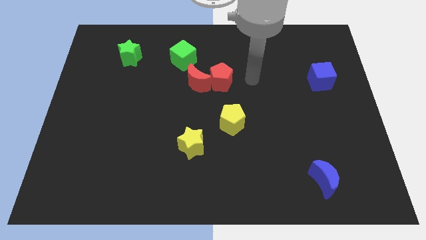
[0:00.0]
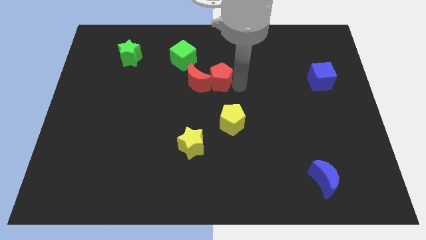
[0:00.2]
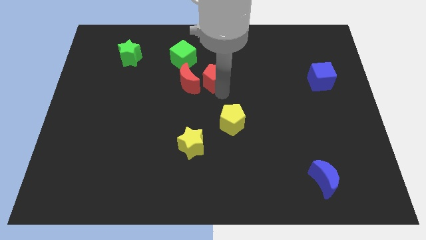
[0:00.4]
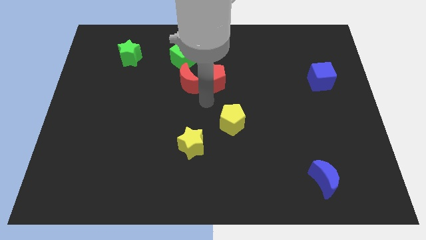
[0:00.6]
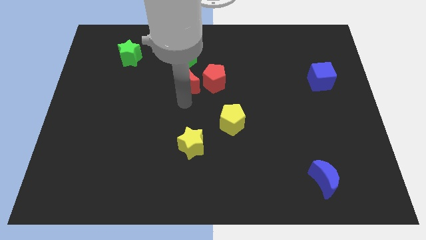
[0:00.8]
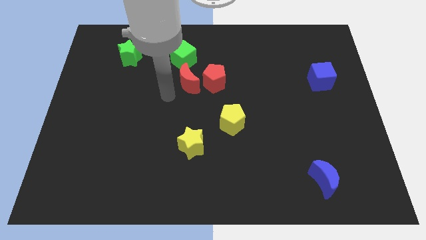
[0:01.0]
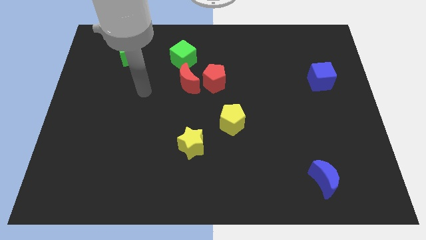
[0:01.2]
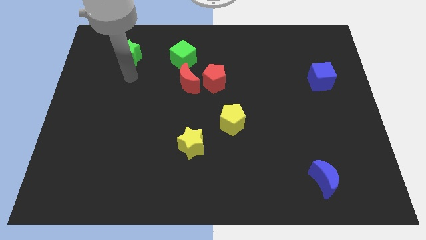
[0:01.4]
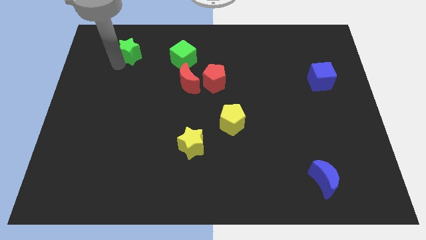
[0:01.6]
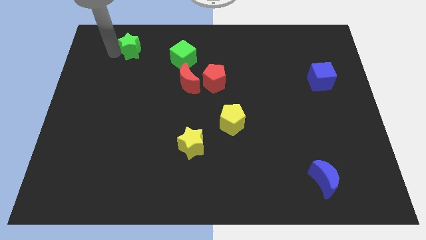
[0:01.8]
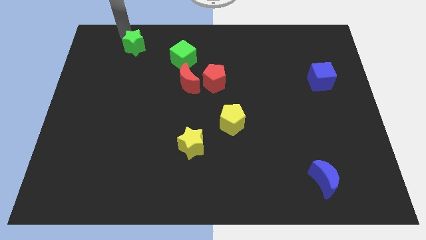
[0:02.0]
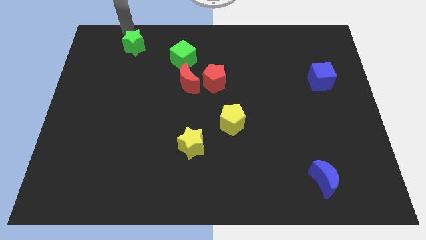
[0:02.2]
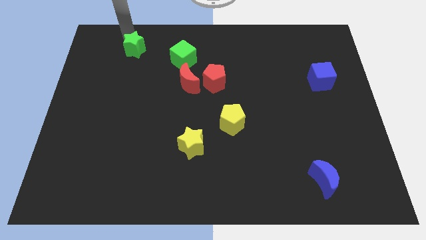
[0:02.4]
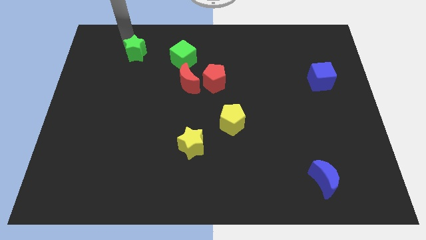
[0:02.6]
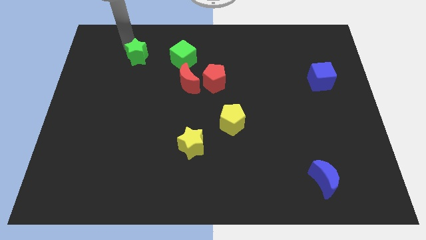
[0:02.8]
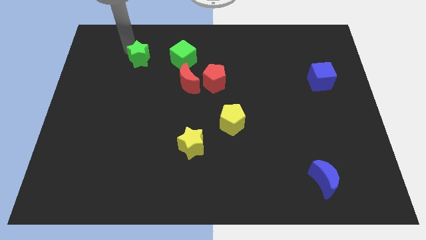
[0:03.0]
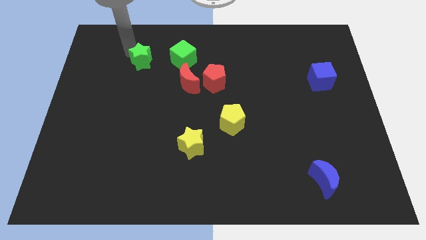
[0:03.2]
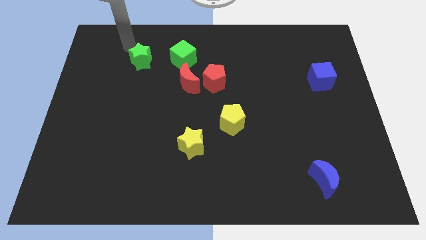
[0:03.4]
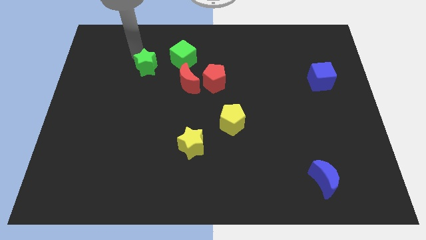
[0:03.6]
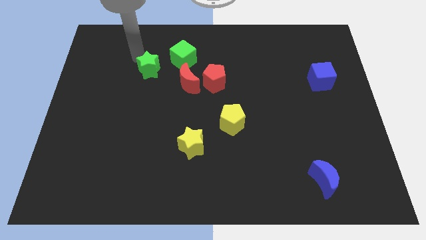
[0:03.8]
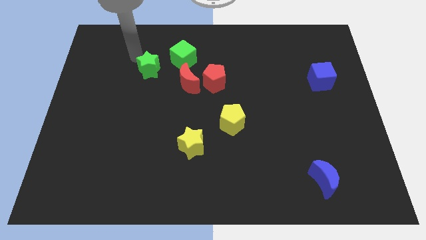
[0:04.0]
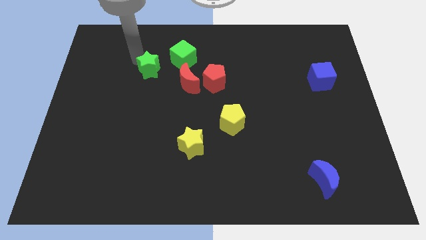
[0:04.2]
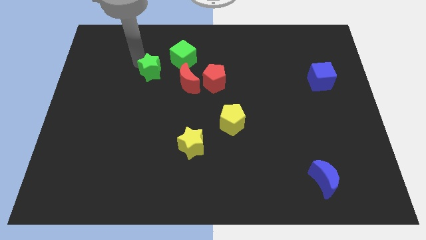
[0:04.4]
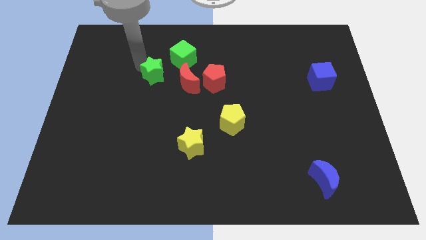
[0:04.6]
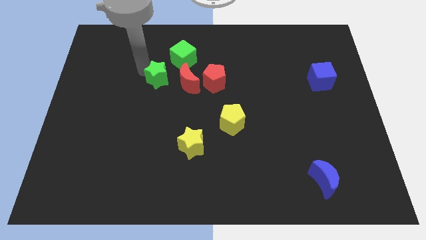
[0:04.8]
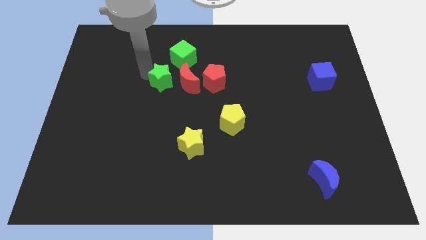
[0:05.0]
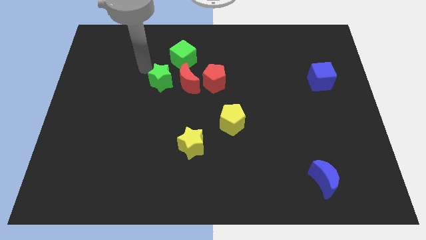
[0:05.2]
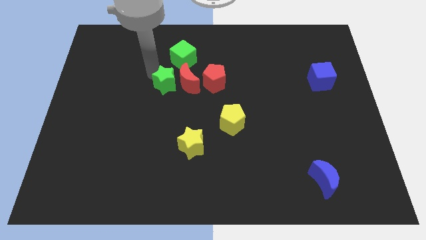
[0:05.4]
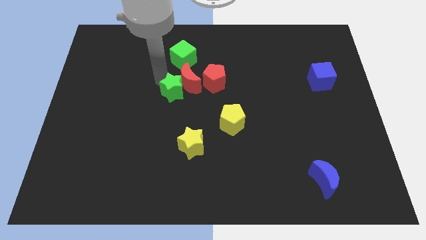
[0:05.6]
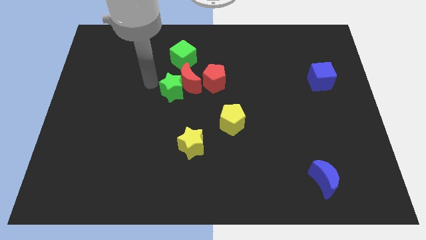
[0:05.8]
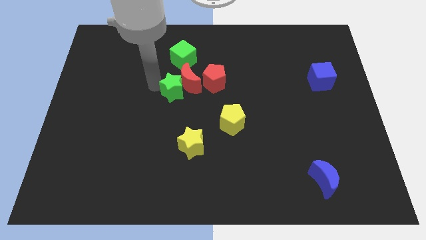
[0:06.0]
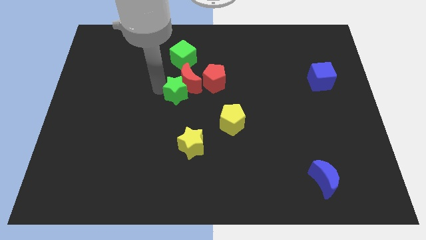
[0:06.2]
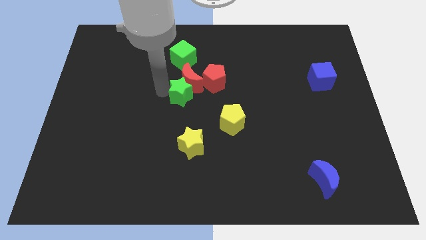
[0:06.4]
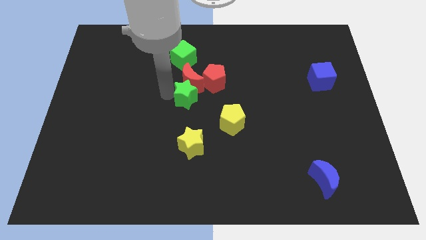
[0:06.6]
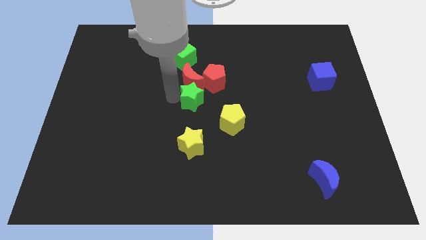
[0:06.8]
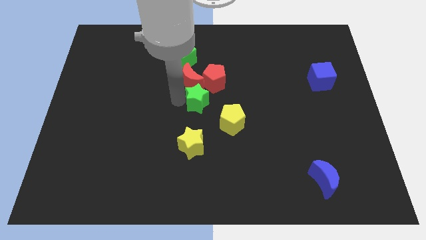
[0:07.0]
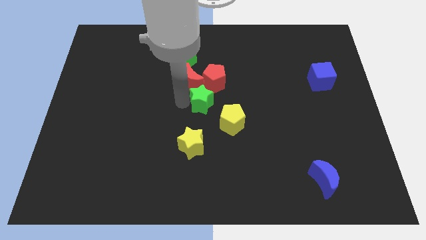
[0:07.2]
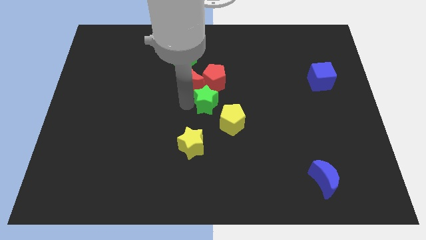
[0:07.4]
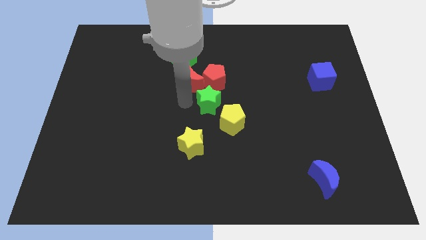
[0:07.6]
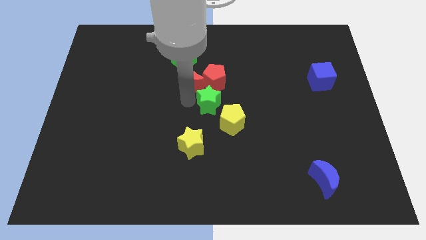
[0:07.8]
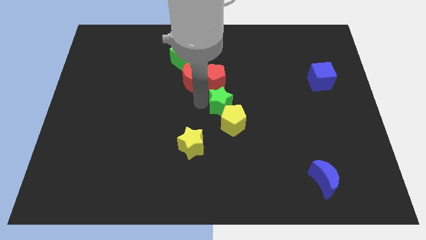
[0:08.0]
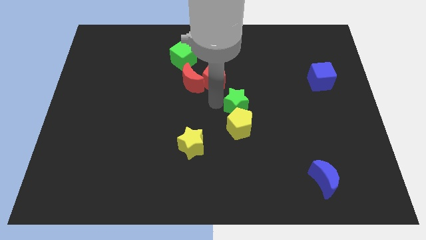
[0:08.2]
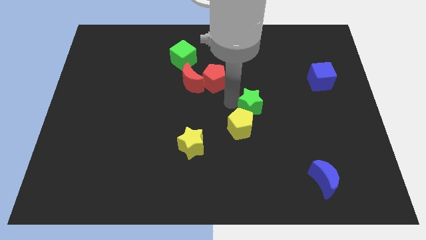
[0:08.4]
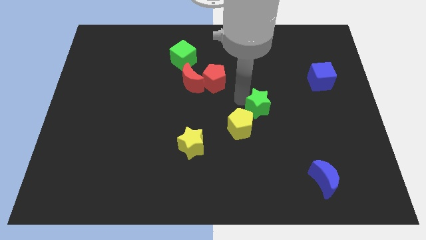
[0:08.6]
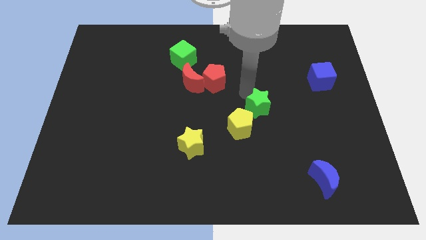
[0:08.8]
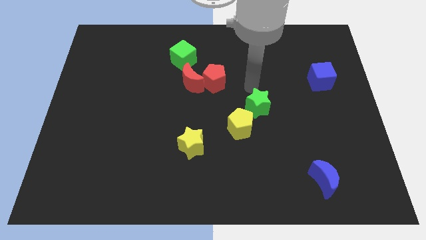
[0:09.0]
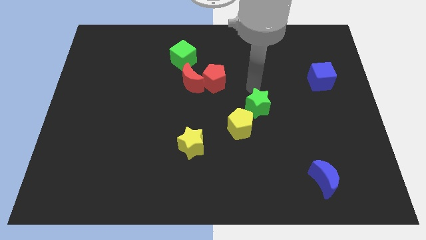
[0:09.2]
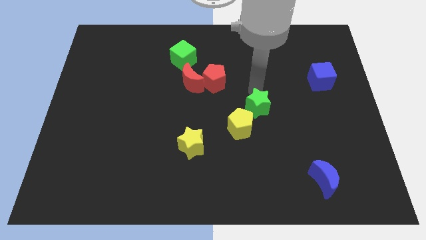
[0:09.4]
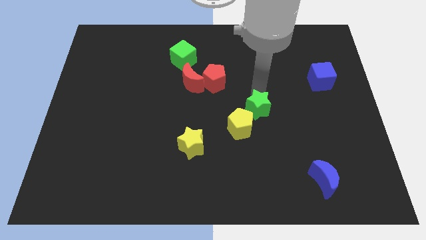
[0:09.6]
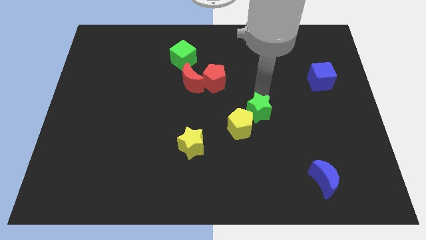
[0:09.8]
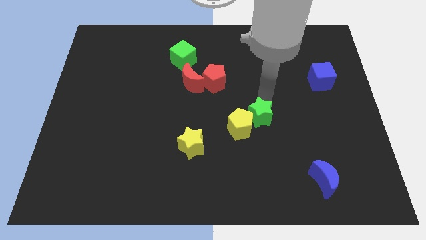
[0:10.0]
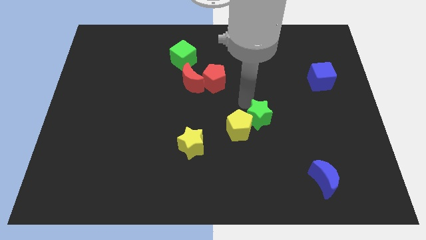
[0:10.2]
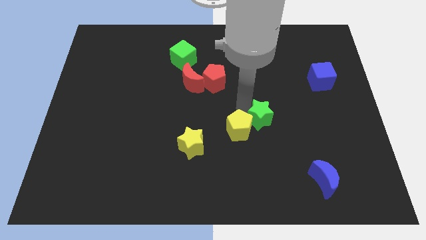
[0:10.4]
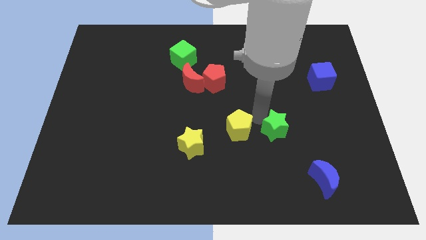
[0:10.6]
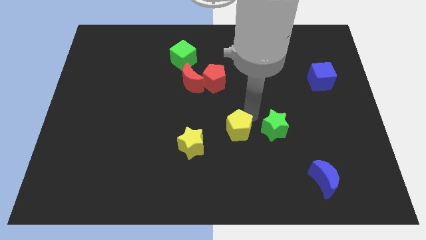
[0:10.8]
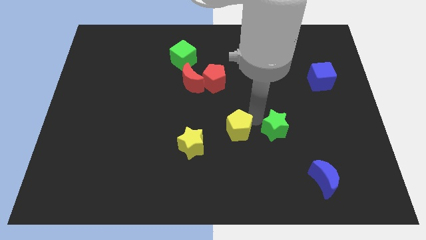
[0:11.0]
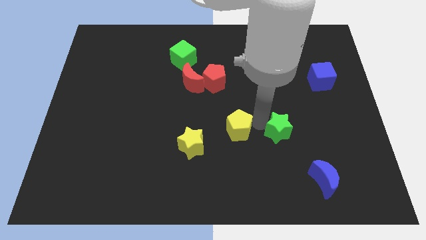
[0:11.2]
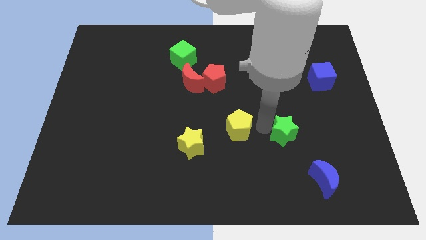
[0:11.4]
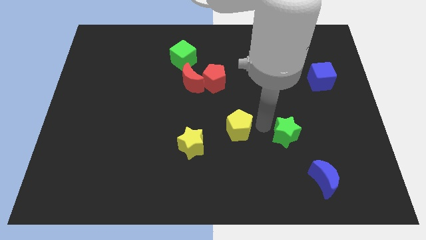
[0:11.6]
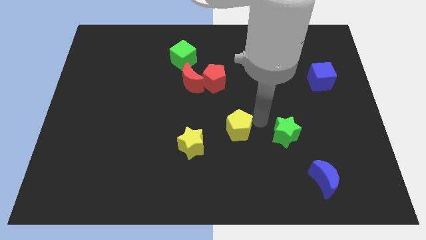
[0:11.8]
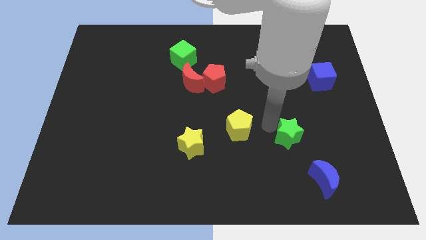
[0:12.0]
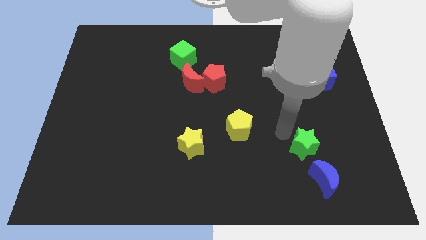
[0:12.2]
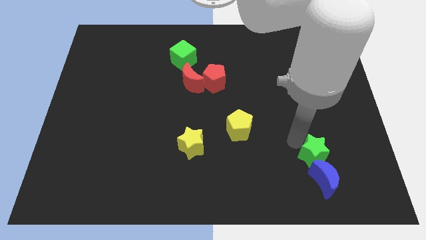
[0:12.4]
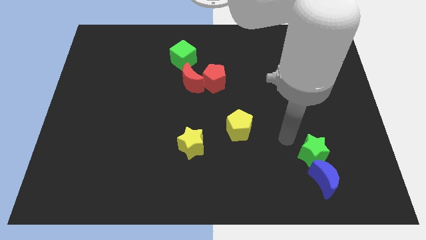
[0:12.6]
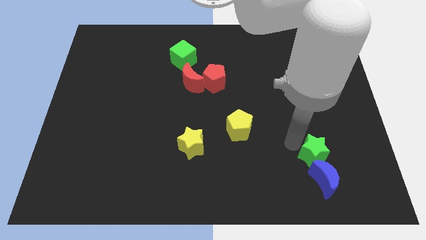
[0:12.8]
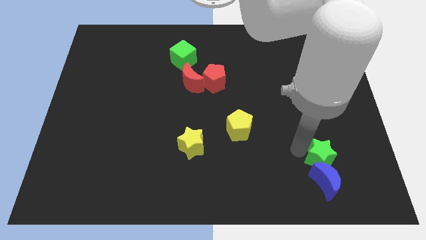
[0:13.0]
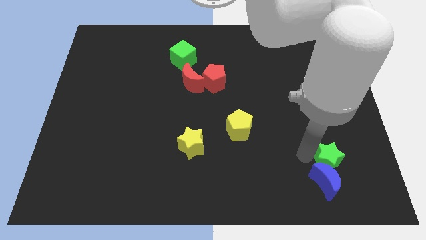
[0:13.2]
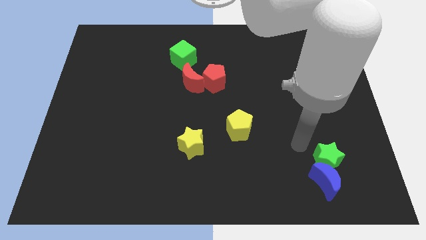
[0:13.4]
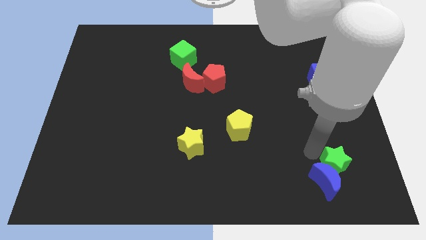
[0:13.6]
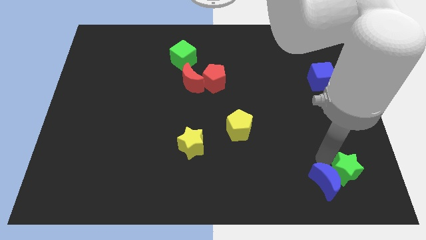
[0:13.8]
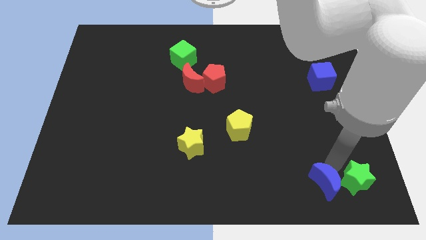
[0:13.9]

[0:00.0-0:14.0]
slide the green star to the bottom right corner
